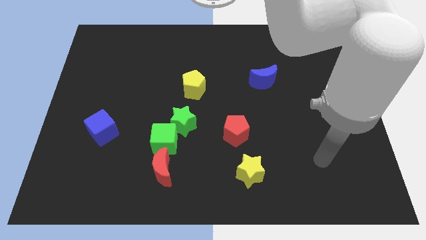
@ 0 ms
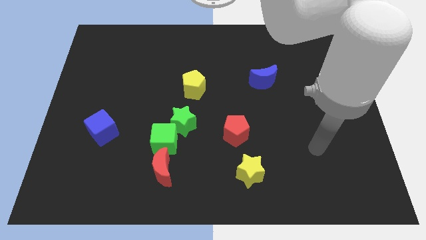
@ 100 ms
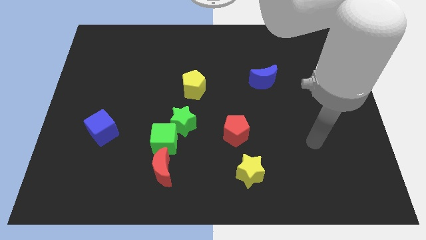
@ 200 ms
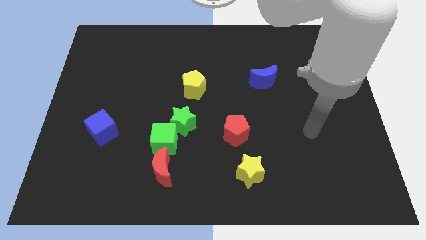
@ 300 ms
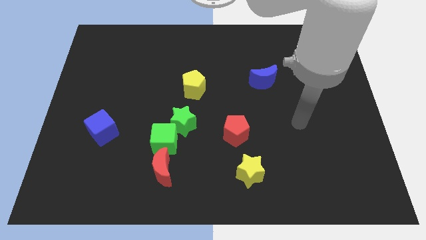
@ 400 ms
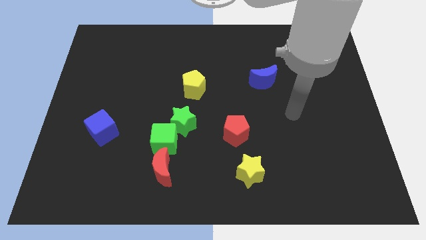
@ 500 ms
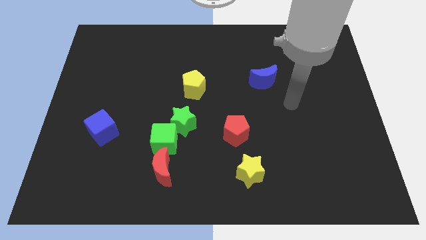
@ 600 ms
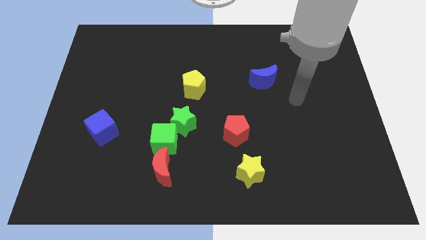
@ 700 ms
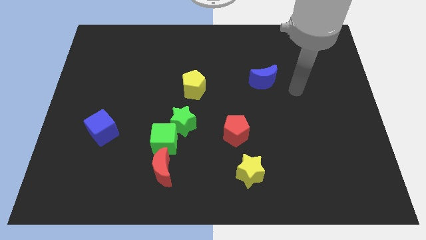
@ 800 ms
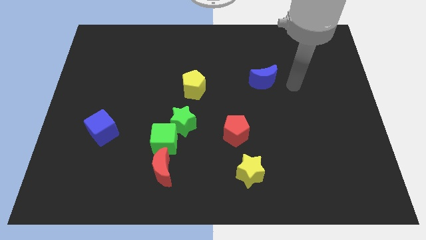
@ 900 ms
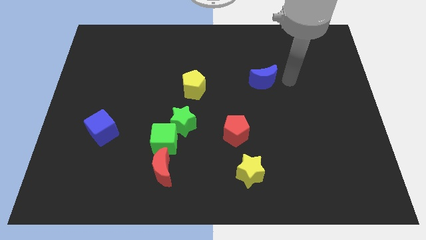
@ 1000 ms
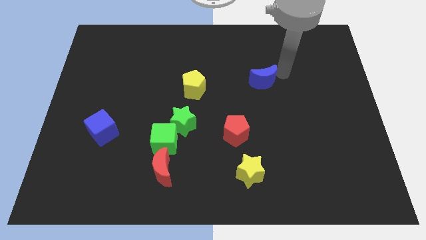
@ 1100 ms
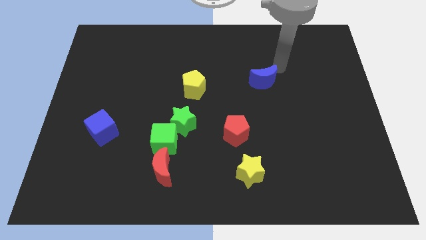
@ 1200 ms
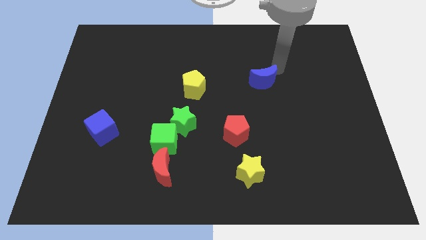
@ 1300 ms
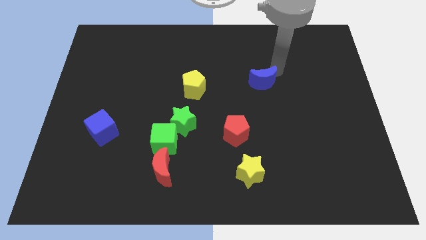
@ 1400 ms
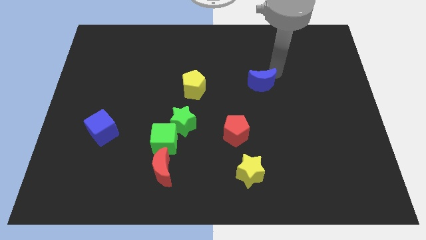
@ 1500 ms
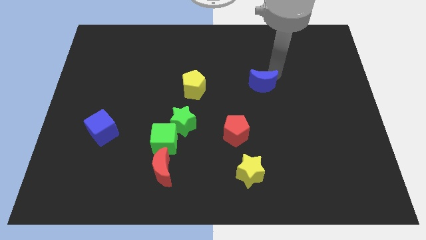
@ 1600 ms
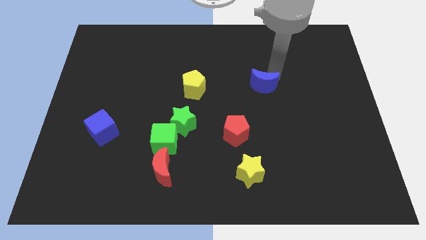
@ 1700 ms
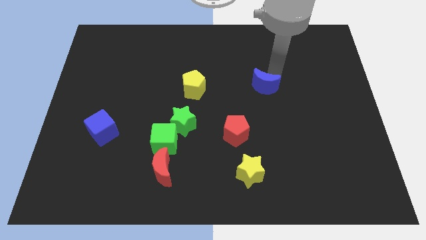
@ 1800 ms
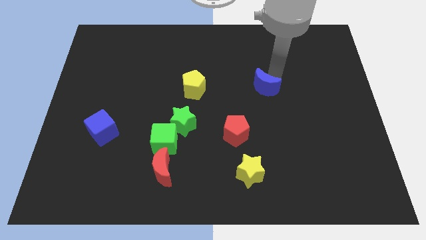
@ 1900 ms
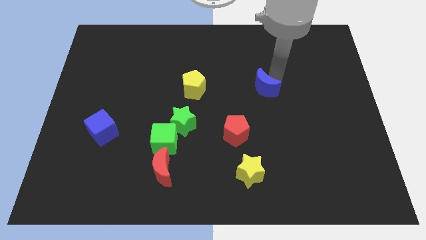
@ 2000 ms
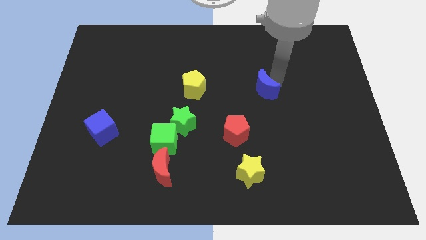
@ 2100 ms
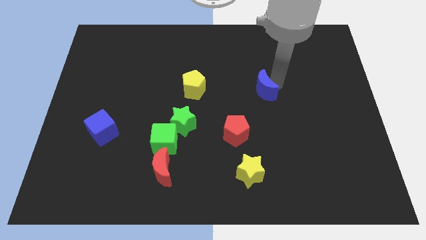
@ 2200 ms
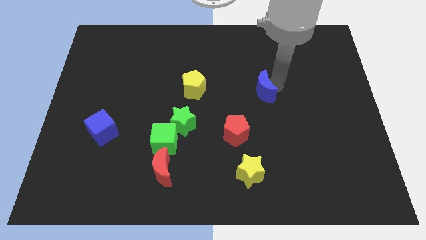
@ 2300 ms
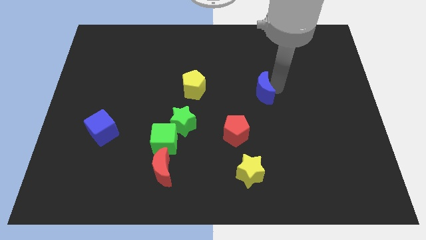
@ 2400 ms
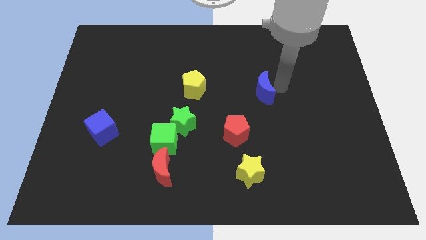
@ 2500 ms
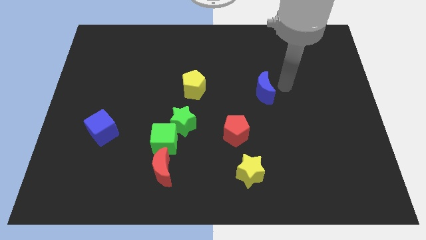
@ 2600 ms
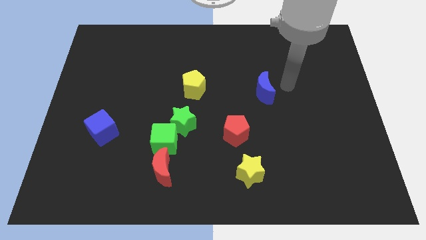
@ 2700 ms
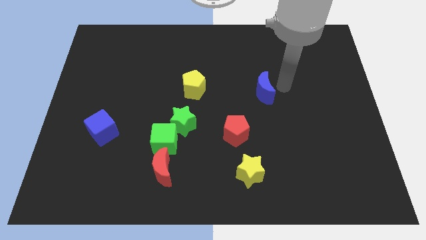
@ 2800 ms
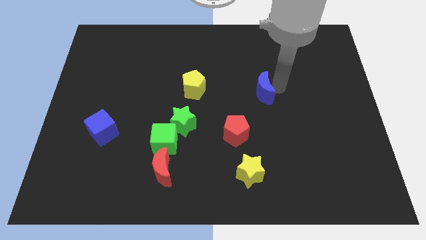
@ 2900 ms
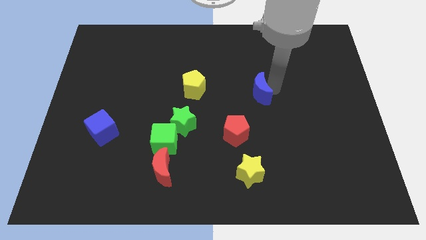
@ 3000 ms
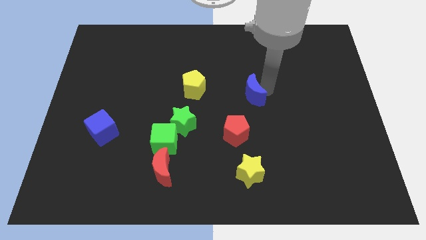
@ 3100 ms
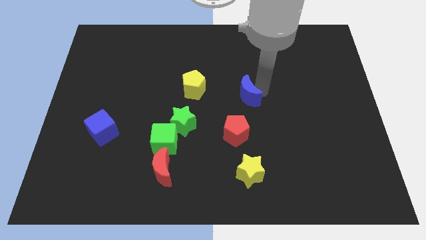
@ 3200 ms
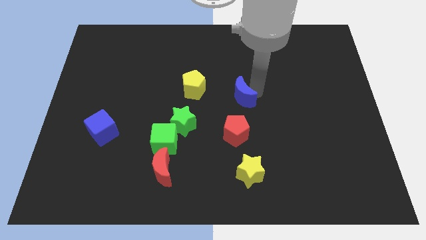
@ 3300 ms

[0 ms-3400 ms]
push the blue moon downwards and then left a bit

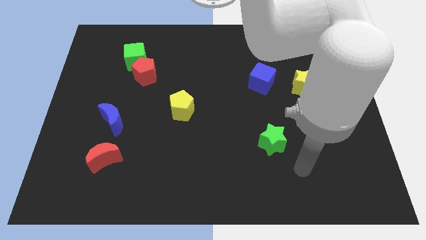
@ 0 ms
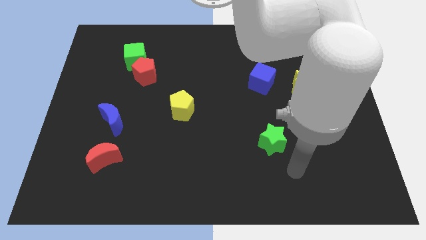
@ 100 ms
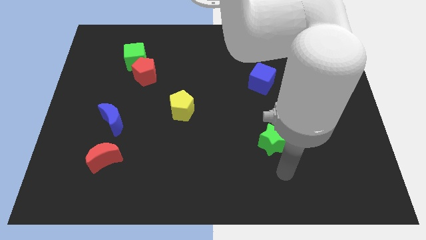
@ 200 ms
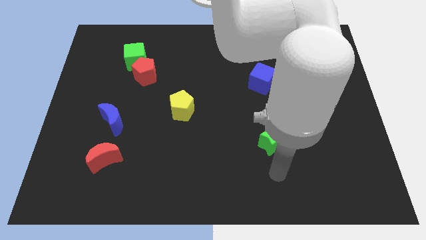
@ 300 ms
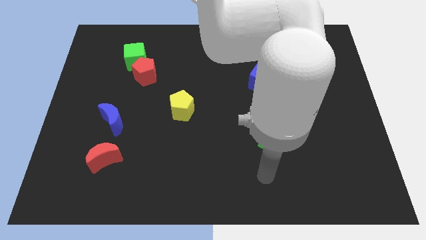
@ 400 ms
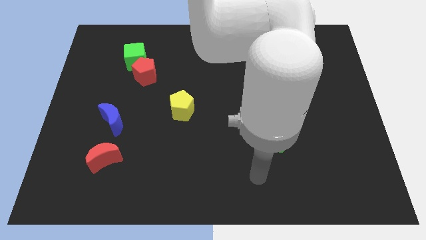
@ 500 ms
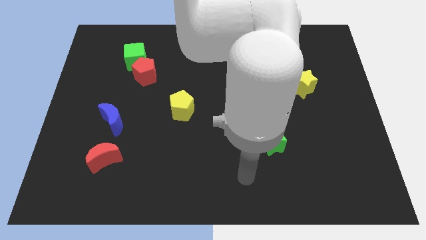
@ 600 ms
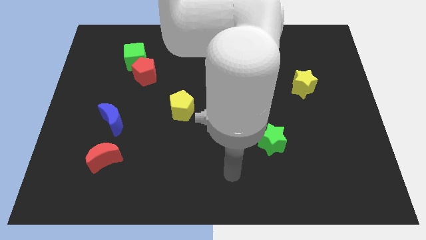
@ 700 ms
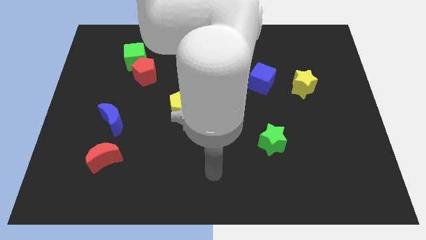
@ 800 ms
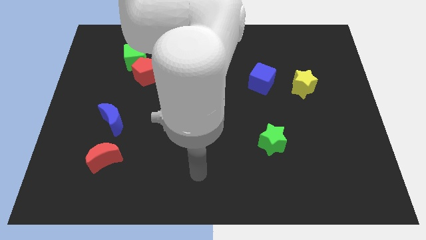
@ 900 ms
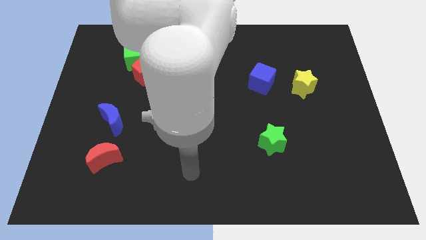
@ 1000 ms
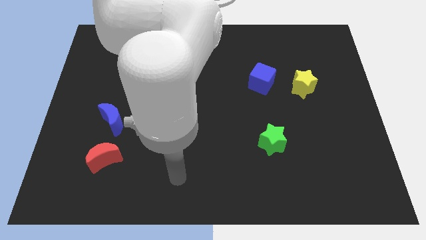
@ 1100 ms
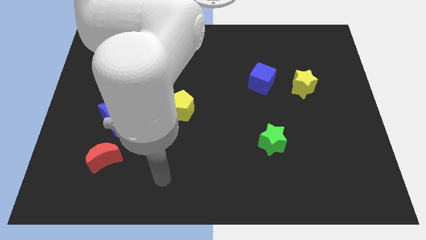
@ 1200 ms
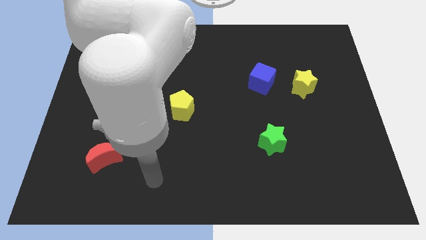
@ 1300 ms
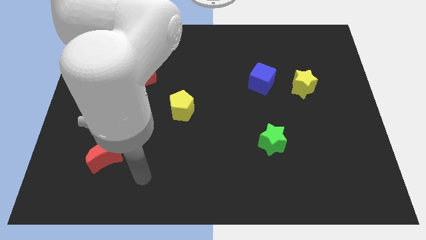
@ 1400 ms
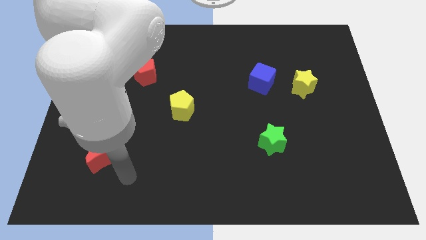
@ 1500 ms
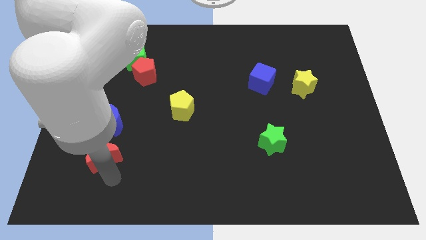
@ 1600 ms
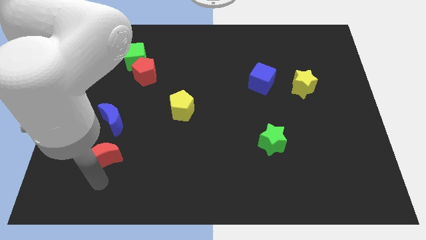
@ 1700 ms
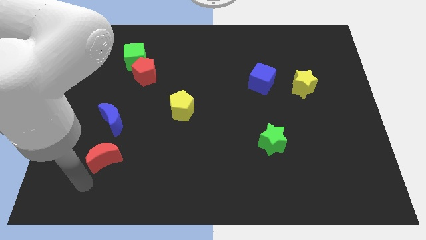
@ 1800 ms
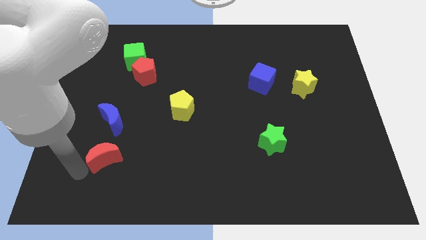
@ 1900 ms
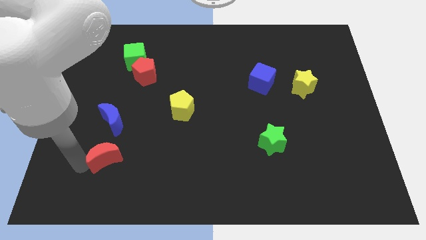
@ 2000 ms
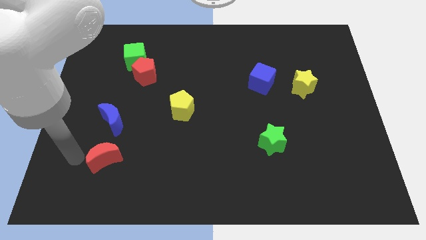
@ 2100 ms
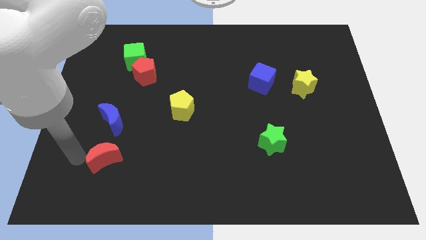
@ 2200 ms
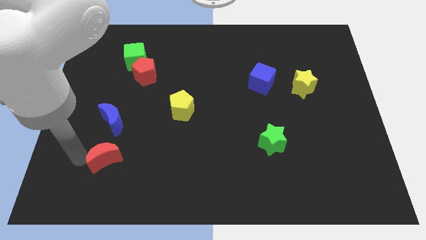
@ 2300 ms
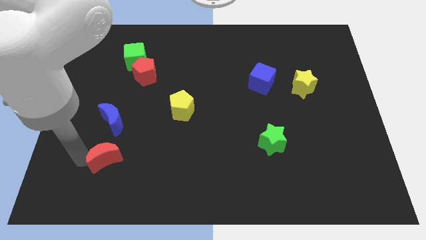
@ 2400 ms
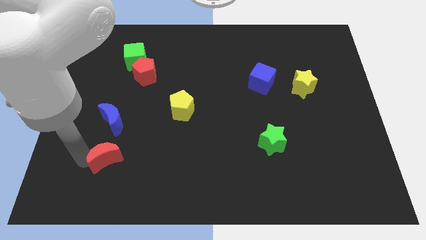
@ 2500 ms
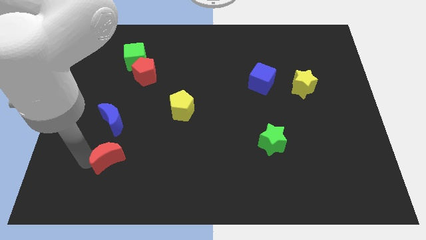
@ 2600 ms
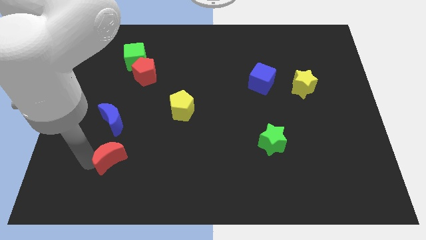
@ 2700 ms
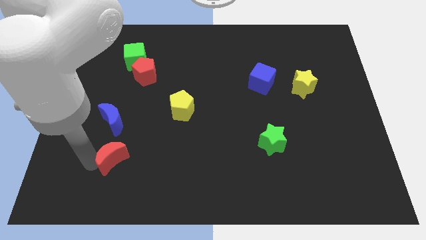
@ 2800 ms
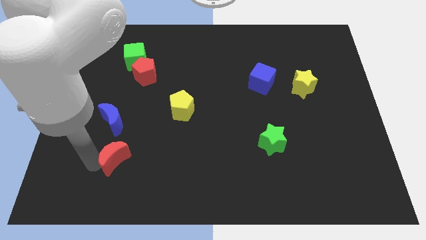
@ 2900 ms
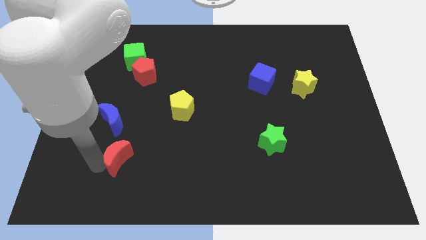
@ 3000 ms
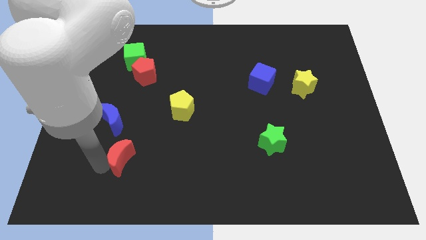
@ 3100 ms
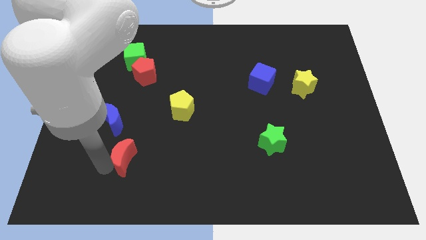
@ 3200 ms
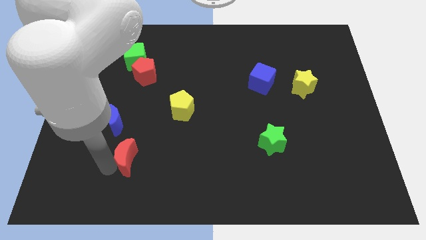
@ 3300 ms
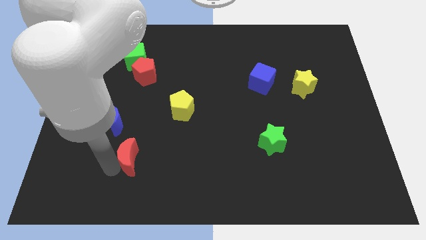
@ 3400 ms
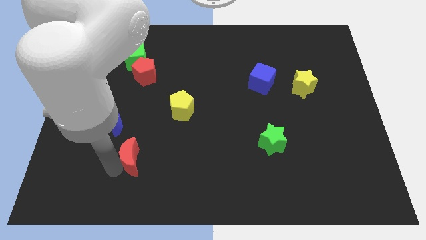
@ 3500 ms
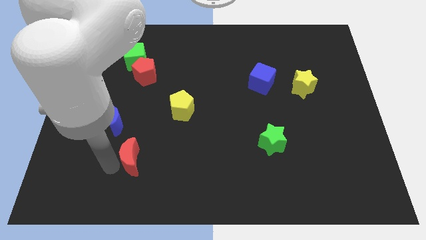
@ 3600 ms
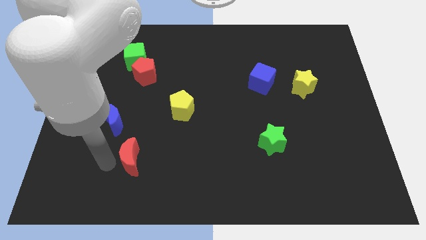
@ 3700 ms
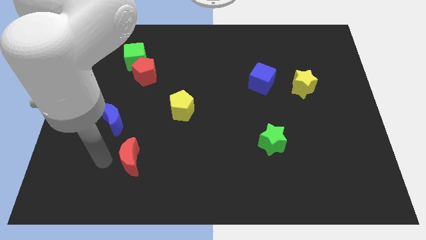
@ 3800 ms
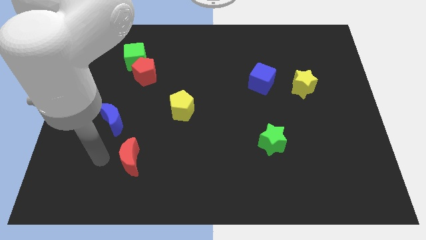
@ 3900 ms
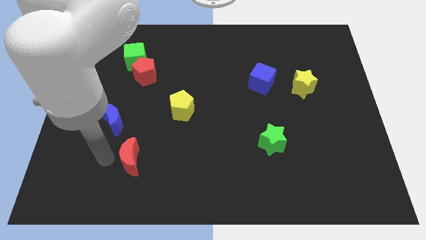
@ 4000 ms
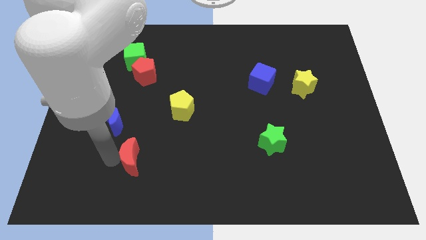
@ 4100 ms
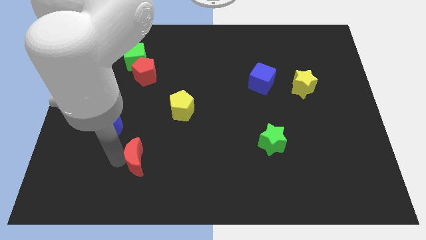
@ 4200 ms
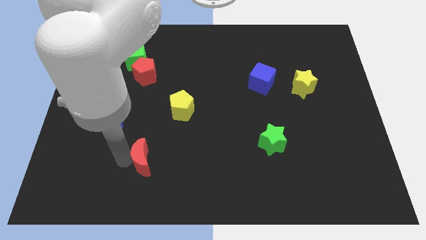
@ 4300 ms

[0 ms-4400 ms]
slightly slide the red moon right

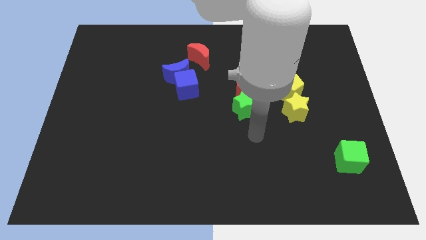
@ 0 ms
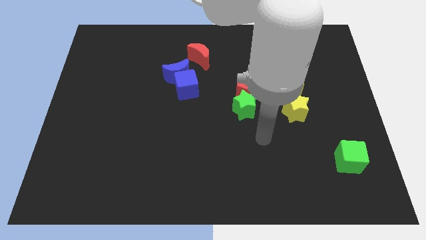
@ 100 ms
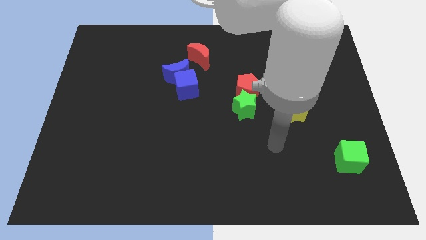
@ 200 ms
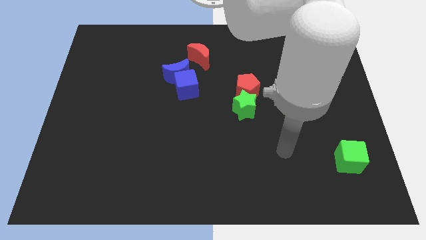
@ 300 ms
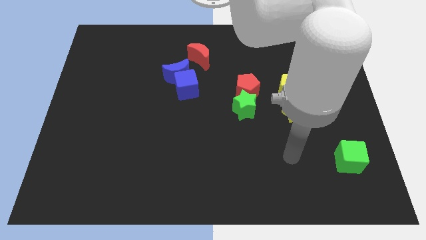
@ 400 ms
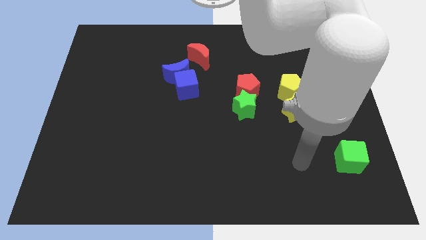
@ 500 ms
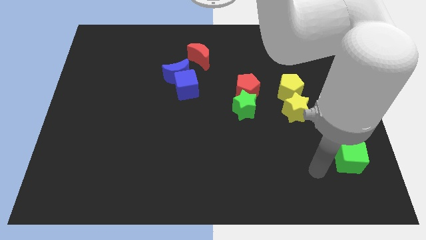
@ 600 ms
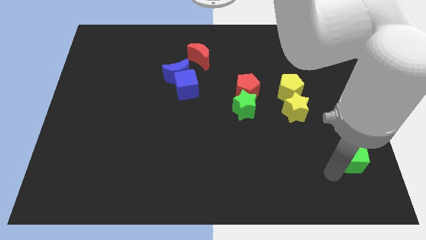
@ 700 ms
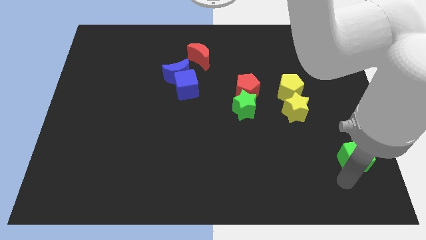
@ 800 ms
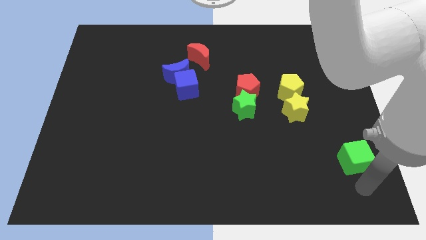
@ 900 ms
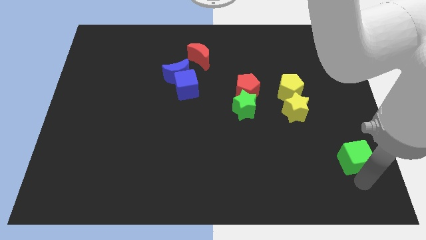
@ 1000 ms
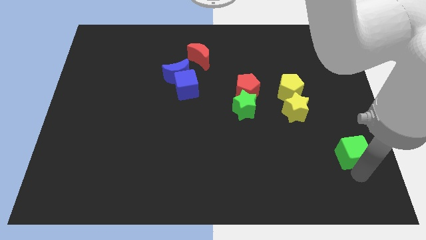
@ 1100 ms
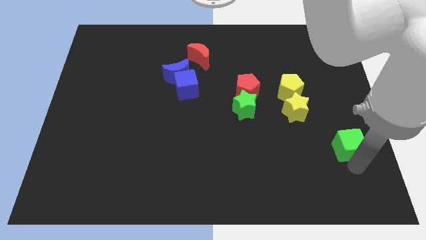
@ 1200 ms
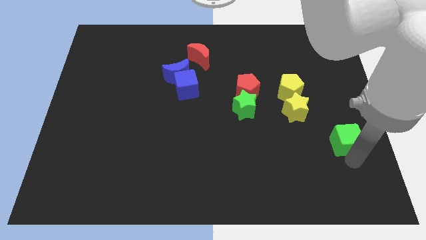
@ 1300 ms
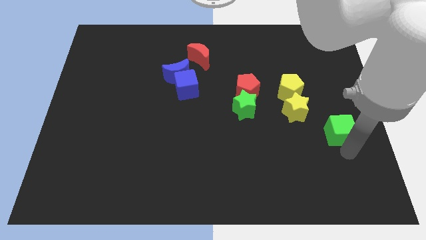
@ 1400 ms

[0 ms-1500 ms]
move the green cube a bit up
